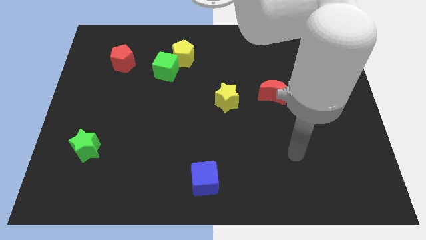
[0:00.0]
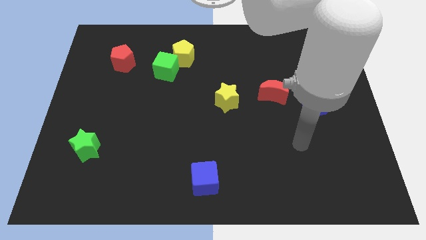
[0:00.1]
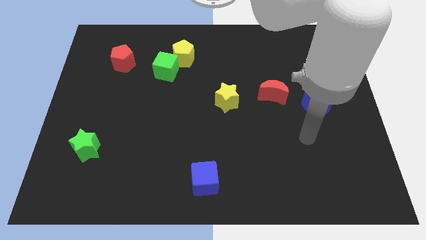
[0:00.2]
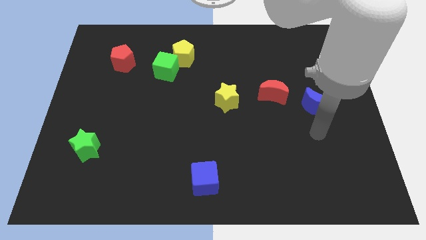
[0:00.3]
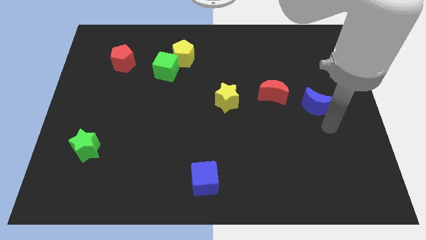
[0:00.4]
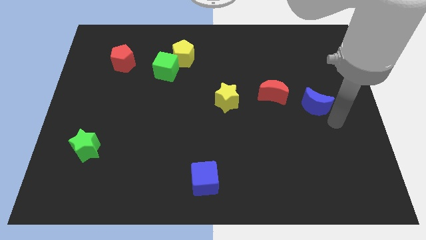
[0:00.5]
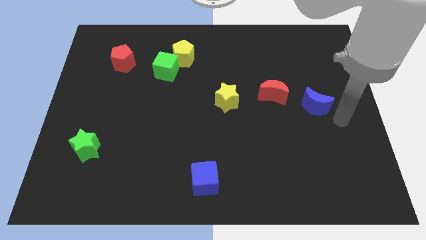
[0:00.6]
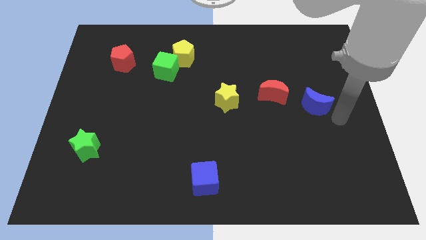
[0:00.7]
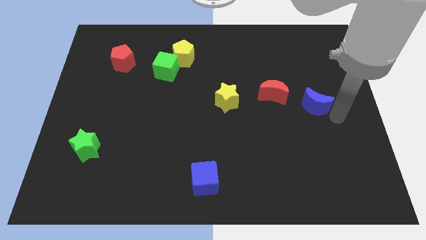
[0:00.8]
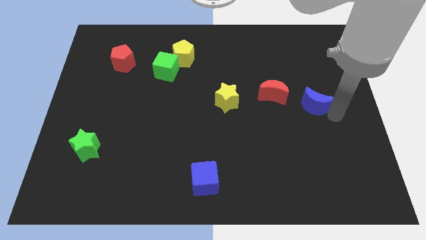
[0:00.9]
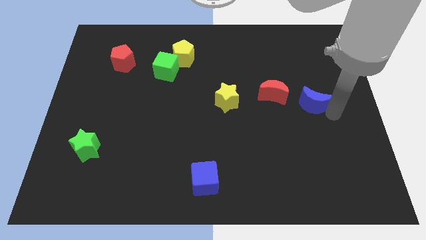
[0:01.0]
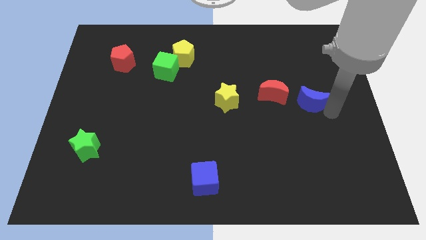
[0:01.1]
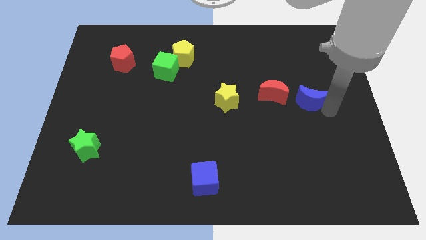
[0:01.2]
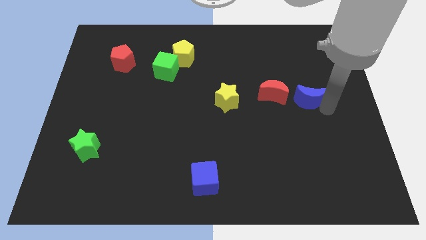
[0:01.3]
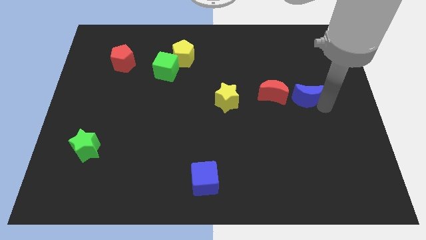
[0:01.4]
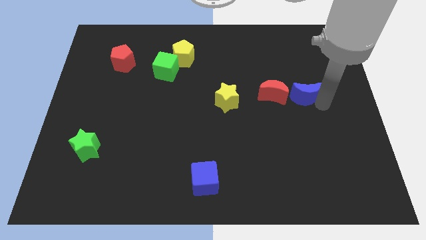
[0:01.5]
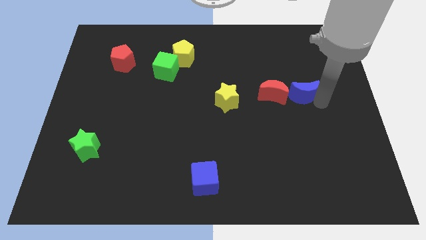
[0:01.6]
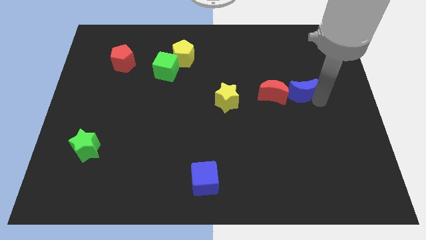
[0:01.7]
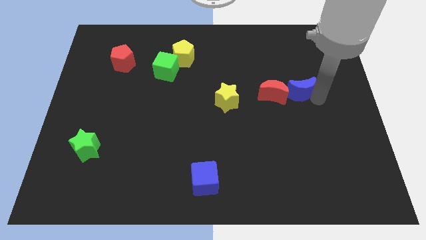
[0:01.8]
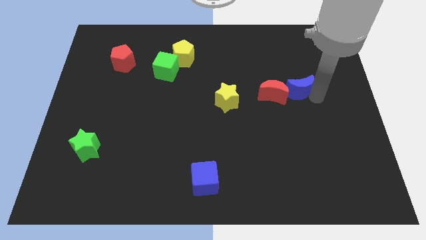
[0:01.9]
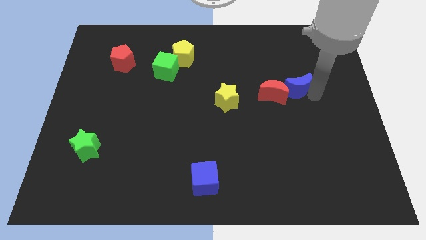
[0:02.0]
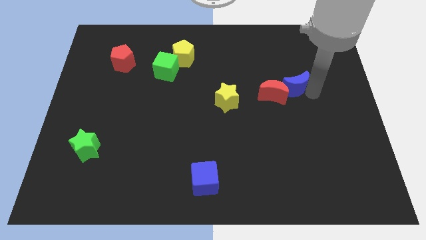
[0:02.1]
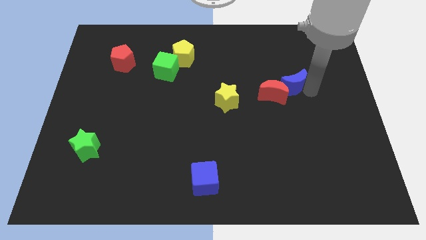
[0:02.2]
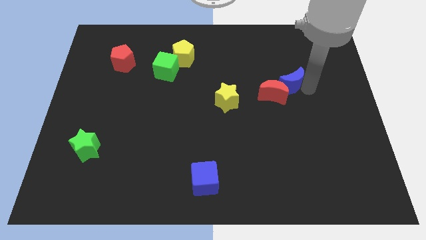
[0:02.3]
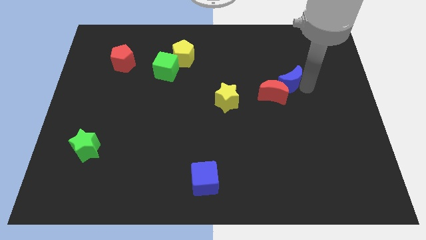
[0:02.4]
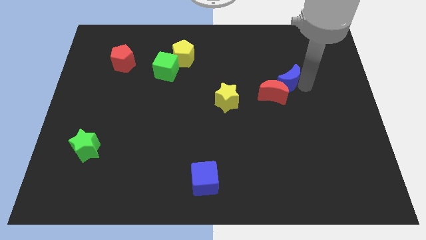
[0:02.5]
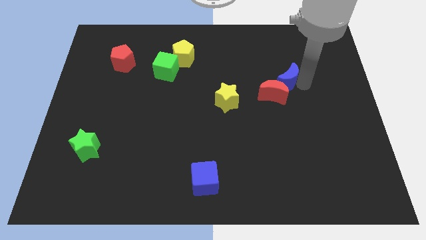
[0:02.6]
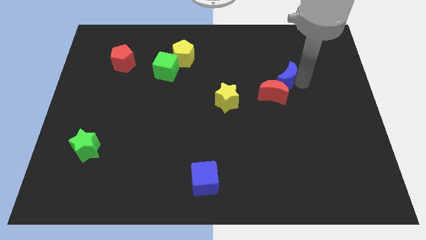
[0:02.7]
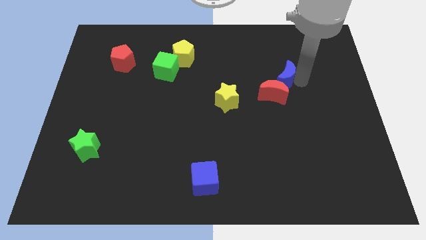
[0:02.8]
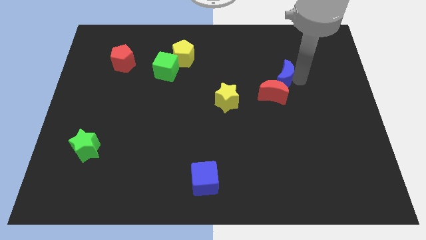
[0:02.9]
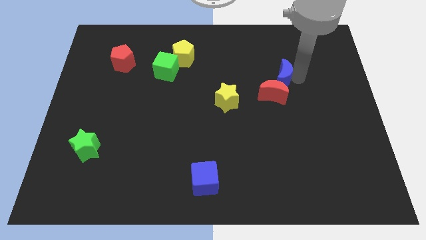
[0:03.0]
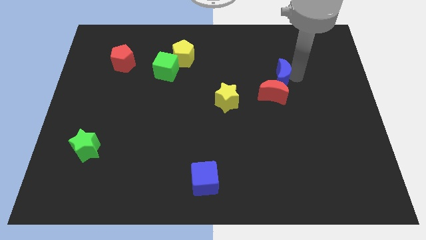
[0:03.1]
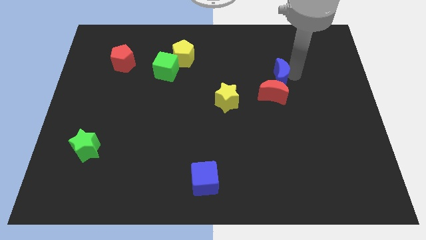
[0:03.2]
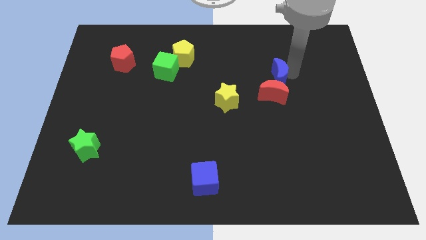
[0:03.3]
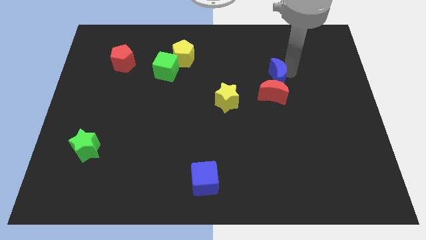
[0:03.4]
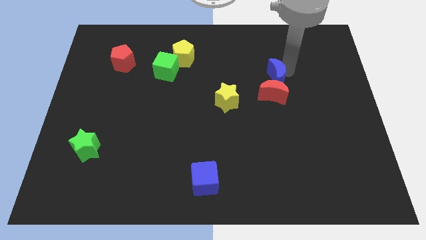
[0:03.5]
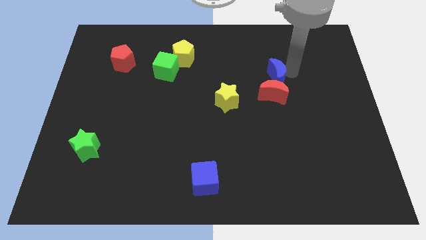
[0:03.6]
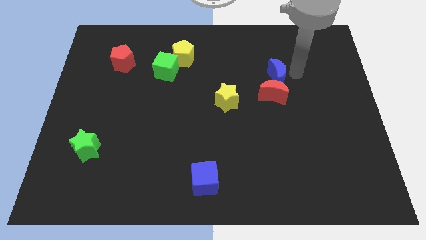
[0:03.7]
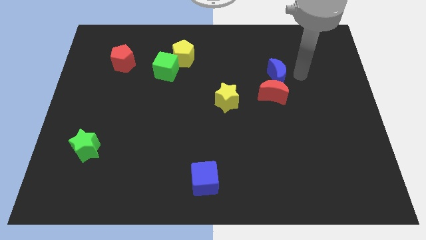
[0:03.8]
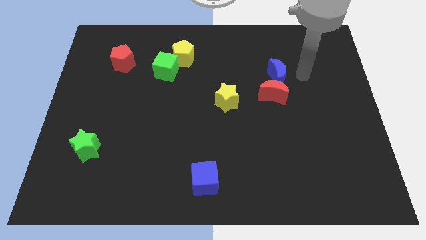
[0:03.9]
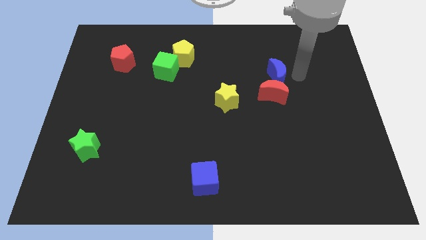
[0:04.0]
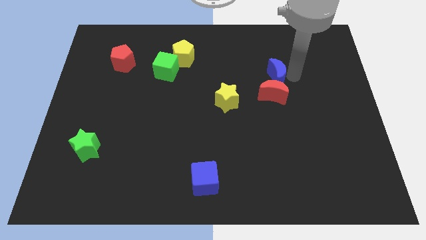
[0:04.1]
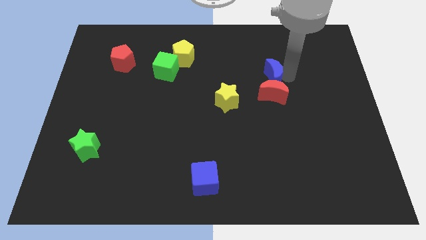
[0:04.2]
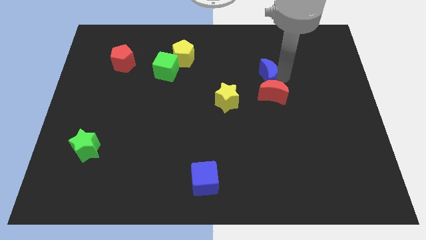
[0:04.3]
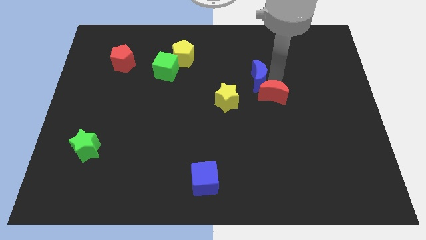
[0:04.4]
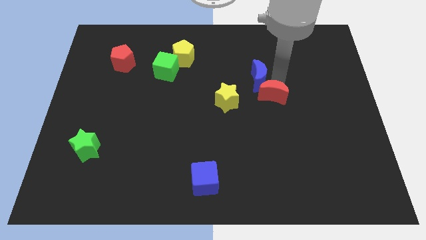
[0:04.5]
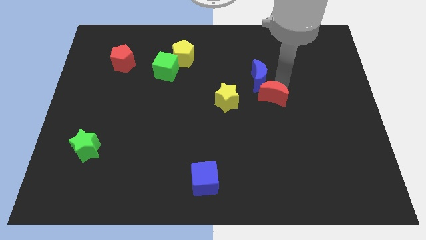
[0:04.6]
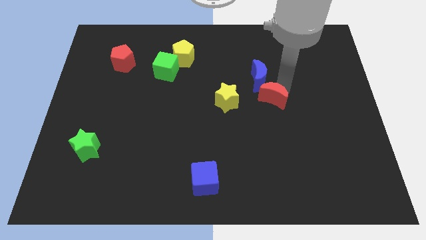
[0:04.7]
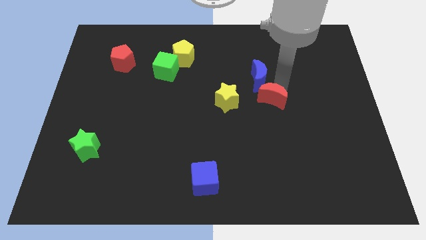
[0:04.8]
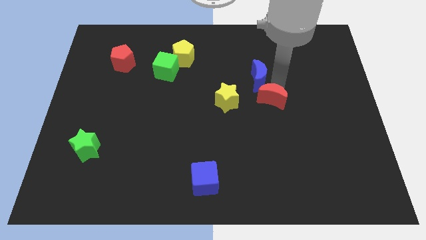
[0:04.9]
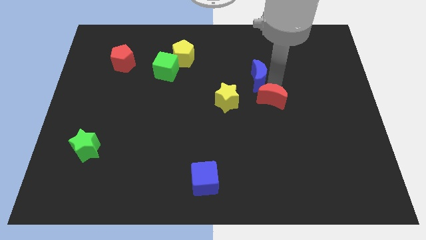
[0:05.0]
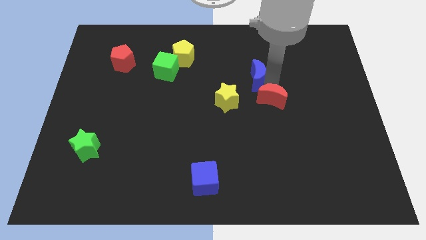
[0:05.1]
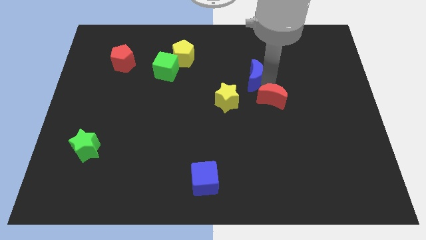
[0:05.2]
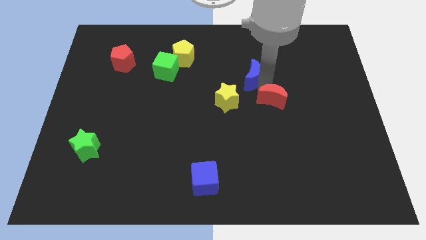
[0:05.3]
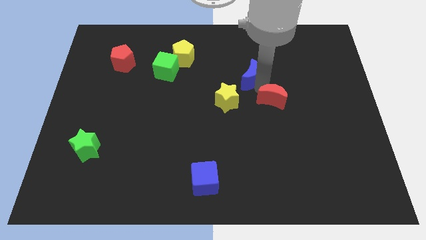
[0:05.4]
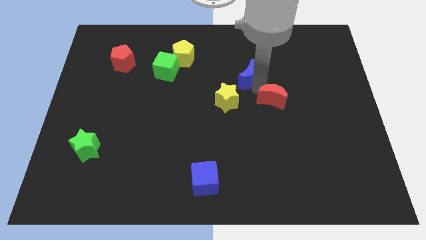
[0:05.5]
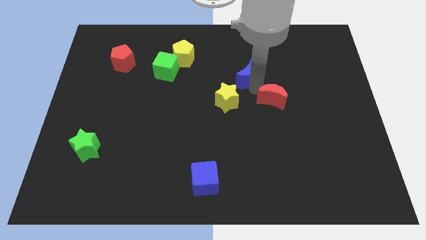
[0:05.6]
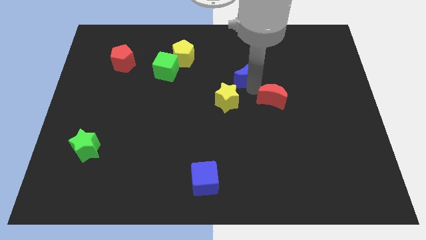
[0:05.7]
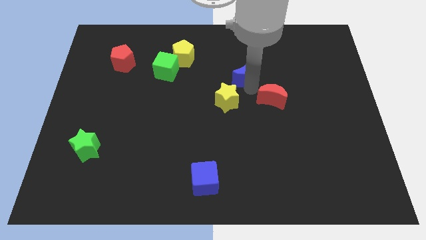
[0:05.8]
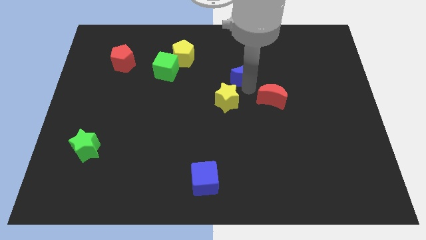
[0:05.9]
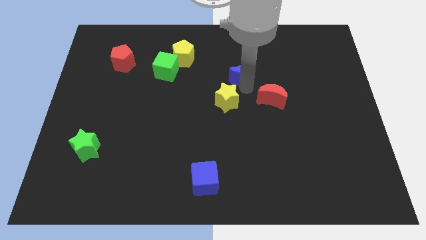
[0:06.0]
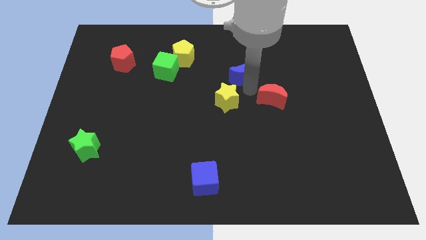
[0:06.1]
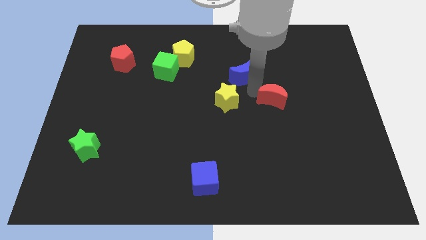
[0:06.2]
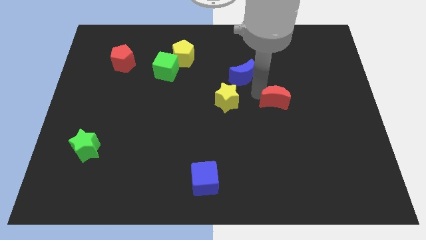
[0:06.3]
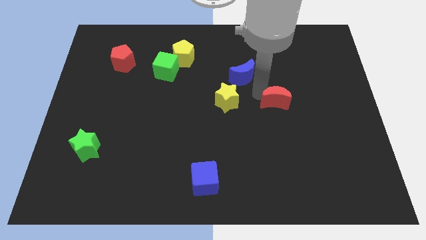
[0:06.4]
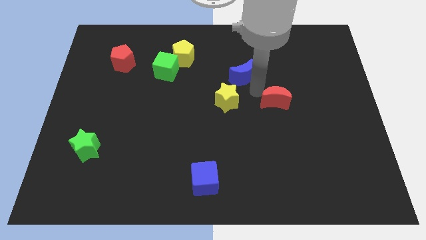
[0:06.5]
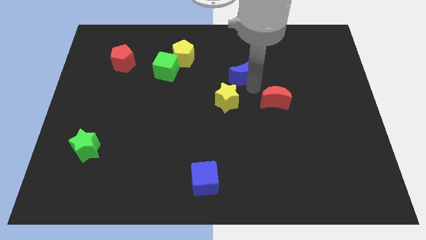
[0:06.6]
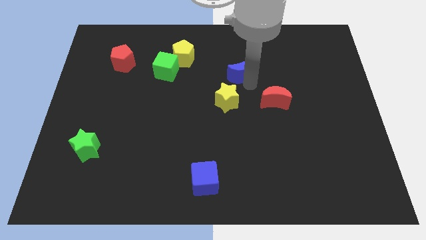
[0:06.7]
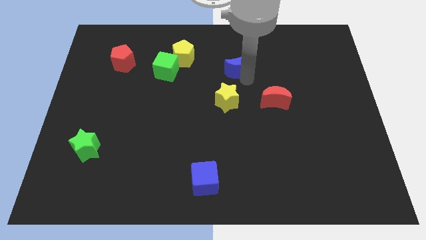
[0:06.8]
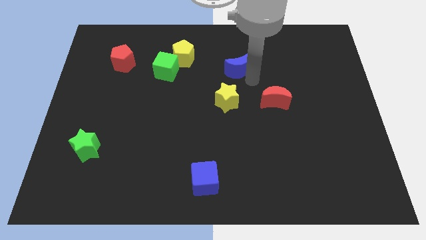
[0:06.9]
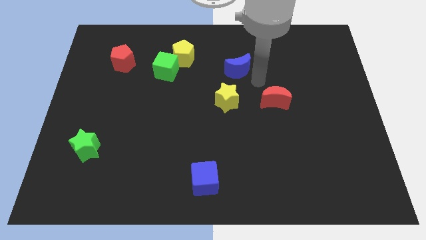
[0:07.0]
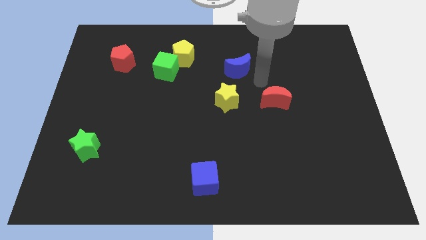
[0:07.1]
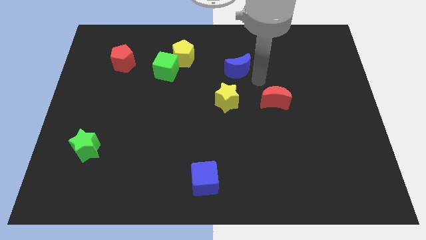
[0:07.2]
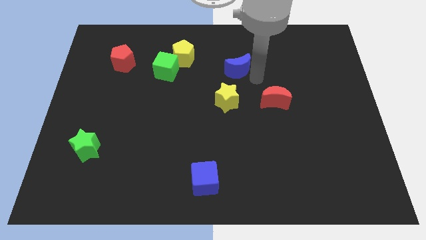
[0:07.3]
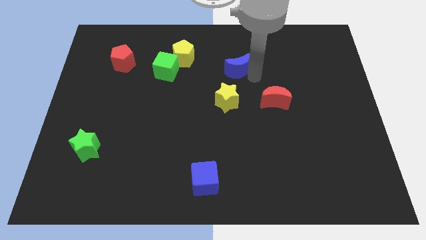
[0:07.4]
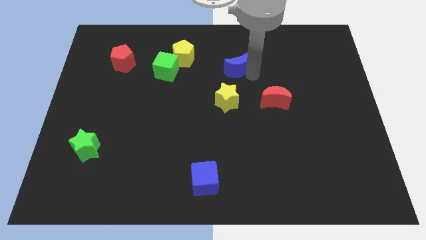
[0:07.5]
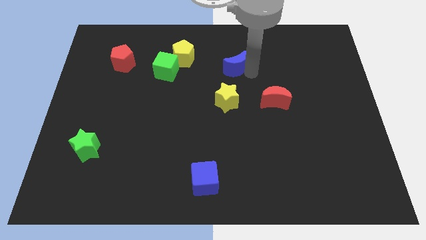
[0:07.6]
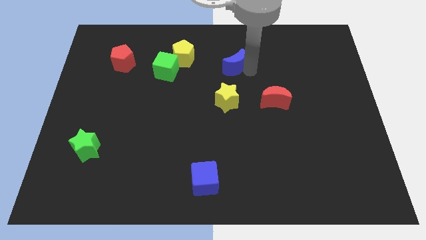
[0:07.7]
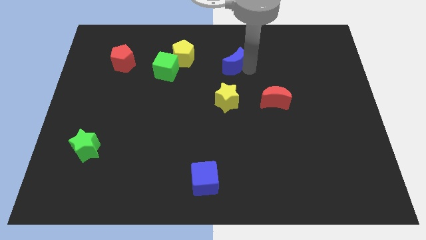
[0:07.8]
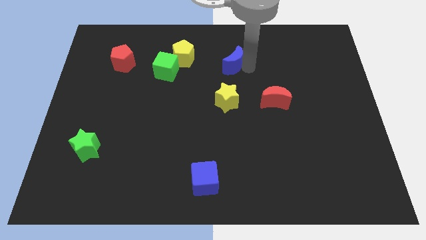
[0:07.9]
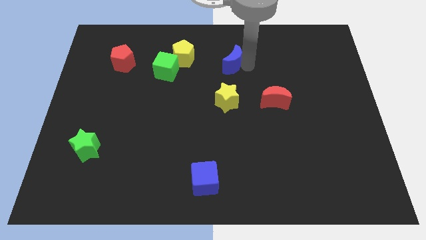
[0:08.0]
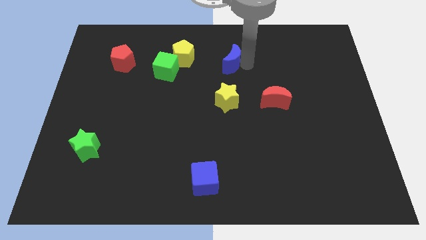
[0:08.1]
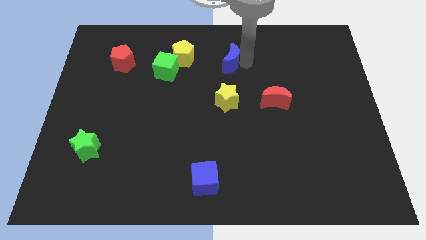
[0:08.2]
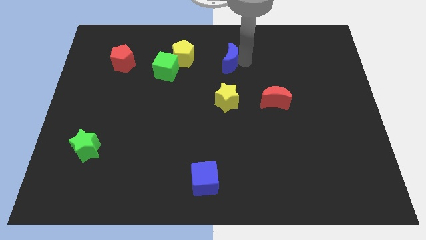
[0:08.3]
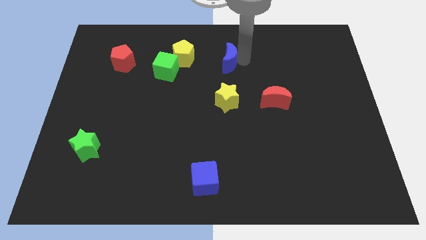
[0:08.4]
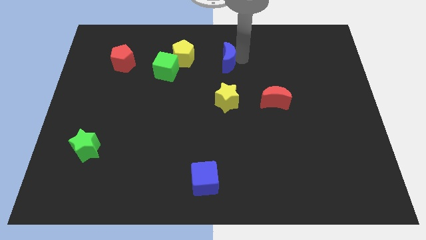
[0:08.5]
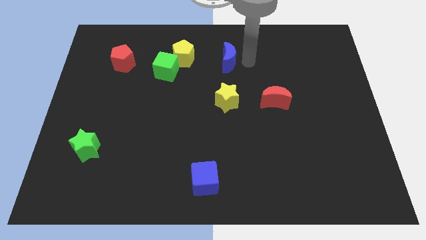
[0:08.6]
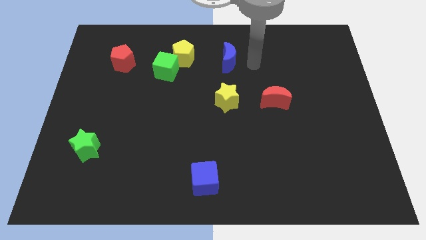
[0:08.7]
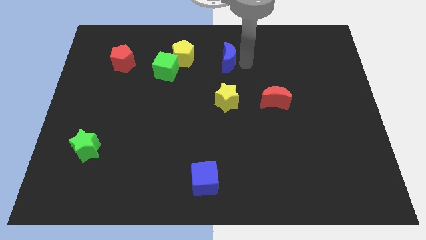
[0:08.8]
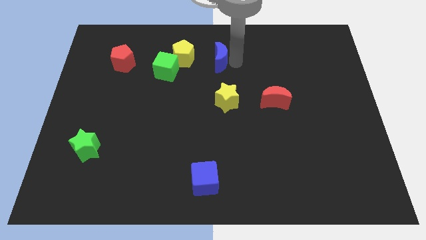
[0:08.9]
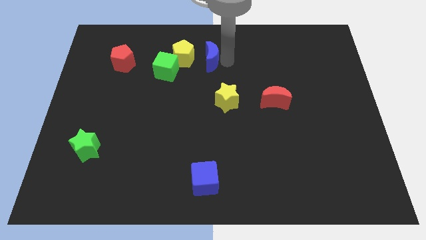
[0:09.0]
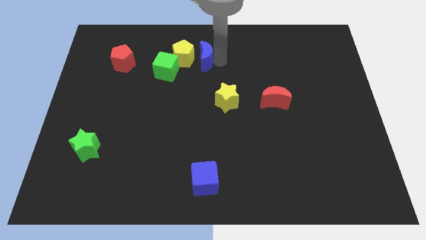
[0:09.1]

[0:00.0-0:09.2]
move the blue moon diagonally up and to the right of the green cube
